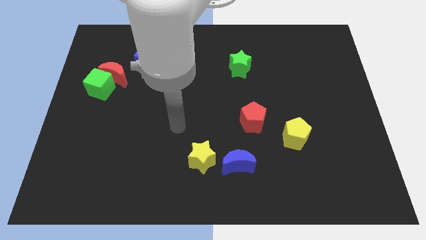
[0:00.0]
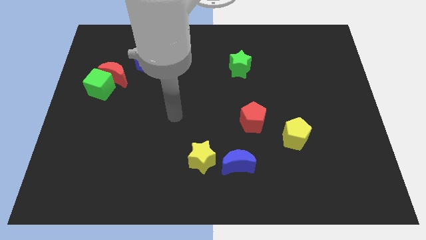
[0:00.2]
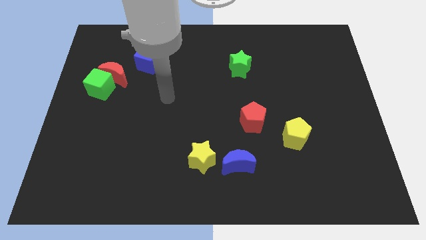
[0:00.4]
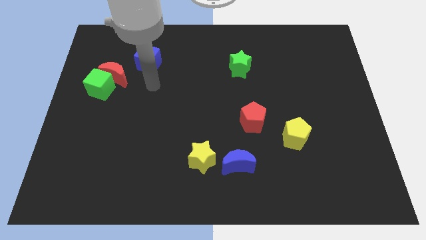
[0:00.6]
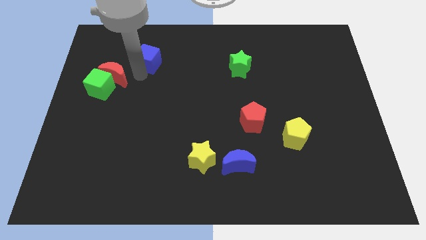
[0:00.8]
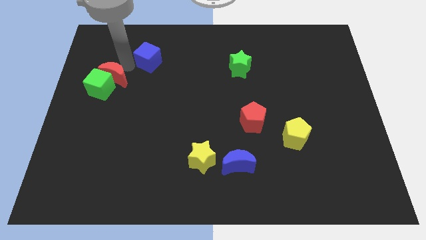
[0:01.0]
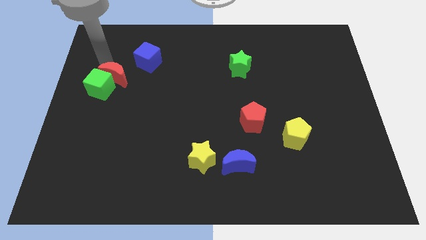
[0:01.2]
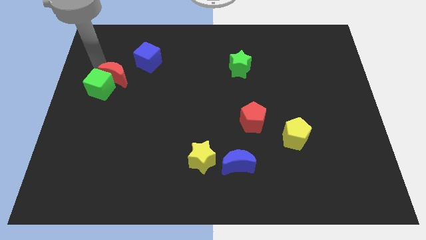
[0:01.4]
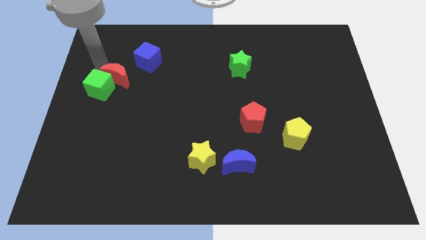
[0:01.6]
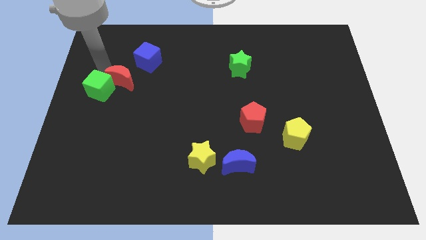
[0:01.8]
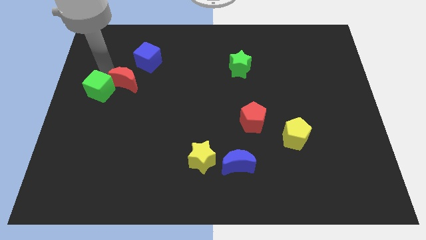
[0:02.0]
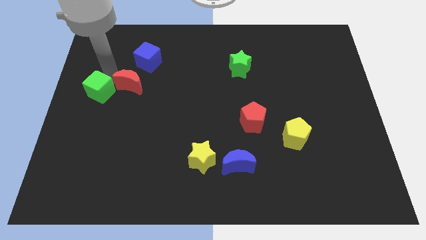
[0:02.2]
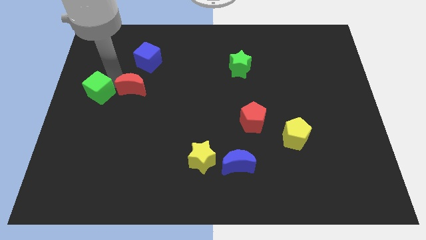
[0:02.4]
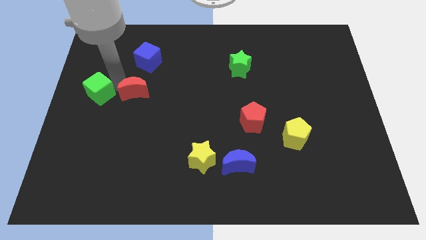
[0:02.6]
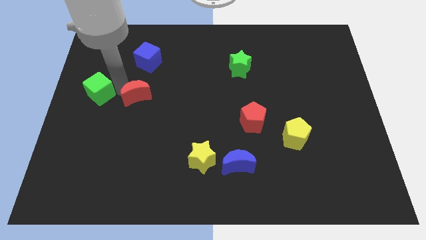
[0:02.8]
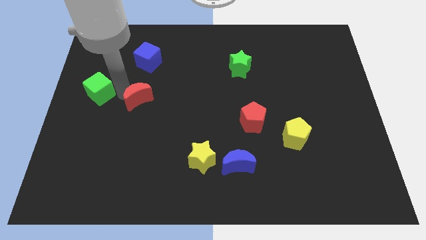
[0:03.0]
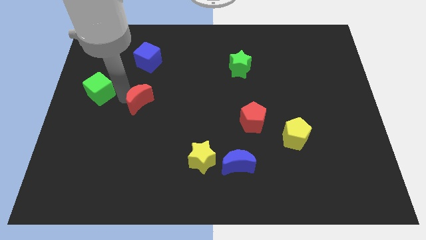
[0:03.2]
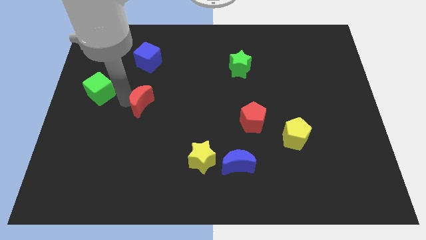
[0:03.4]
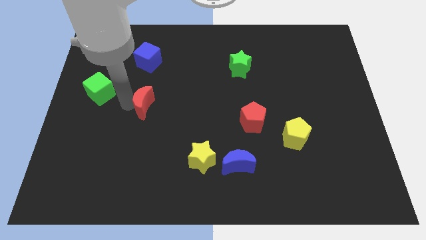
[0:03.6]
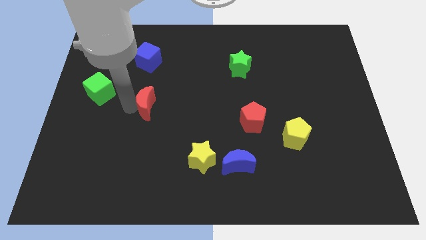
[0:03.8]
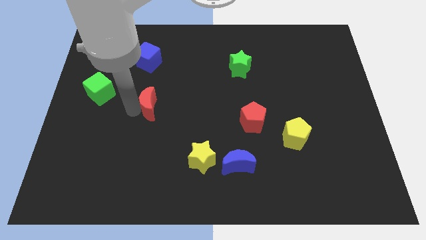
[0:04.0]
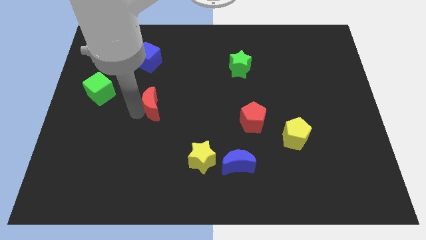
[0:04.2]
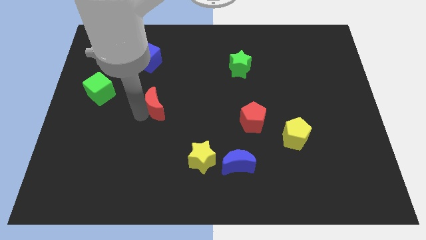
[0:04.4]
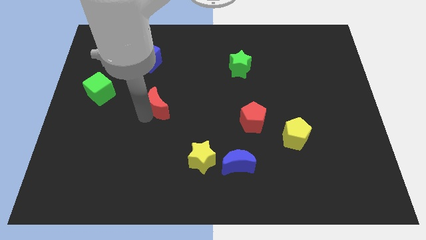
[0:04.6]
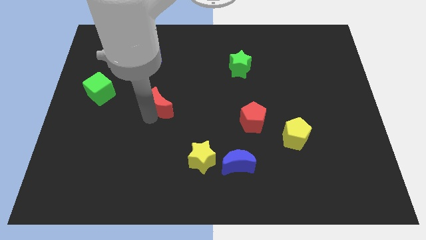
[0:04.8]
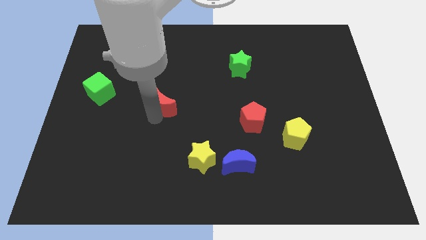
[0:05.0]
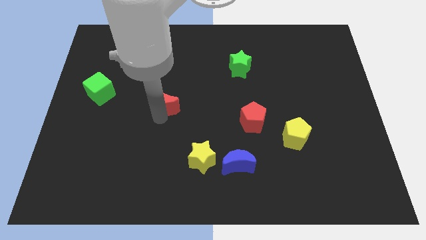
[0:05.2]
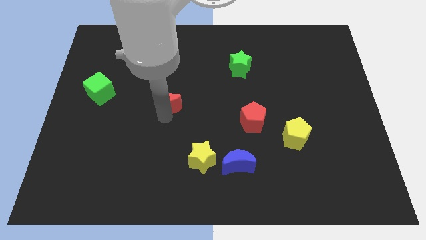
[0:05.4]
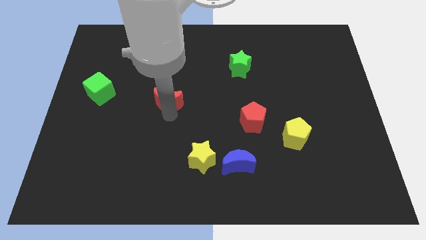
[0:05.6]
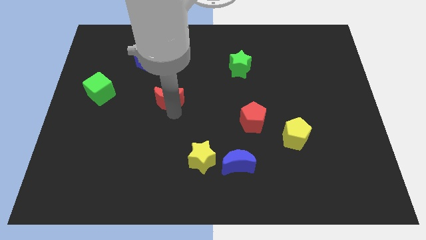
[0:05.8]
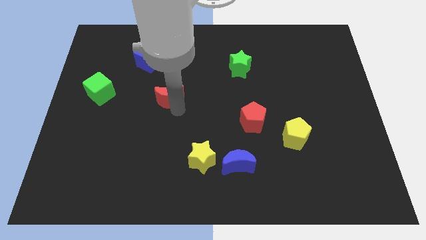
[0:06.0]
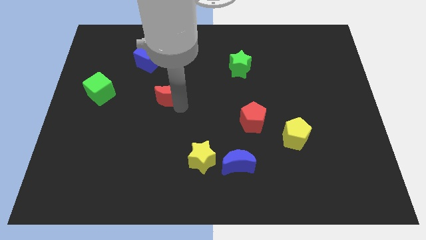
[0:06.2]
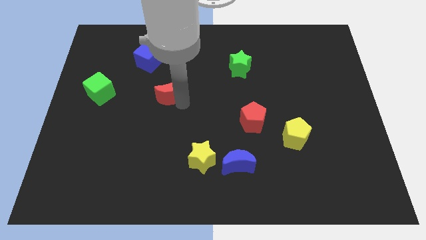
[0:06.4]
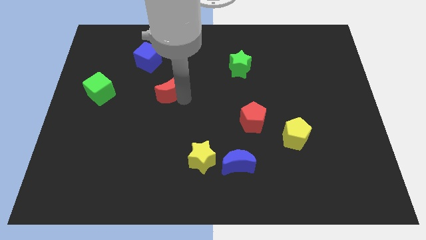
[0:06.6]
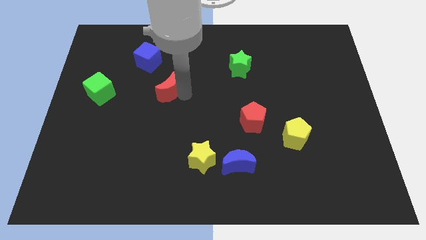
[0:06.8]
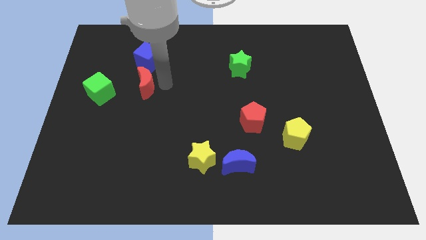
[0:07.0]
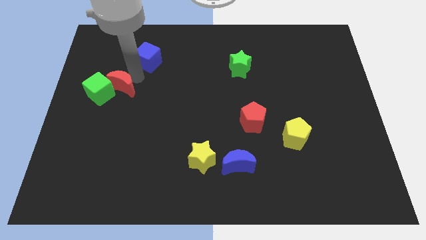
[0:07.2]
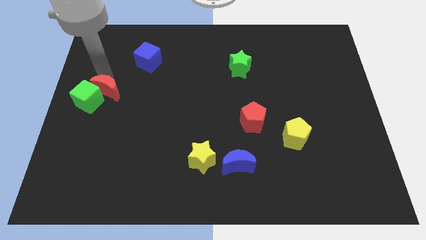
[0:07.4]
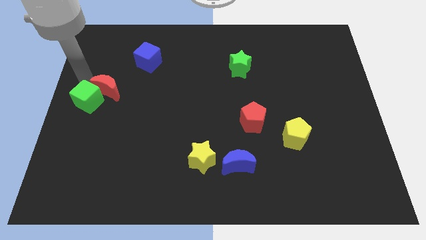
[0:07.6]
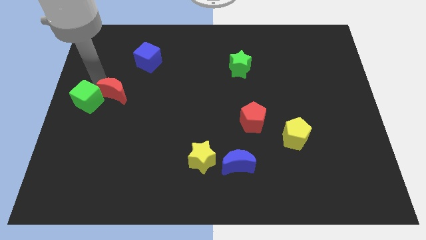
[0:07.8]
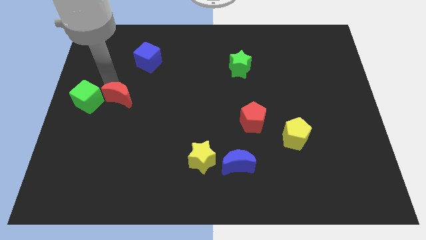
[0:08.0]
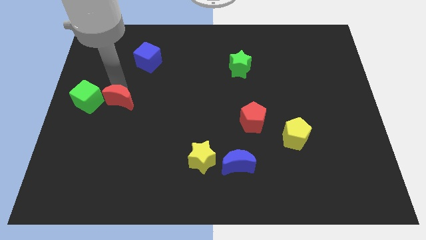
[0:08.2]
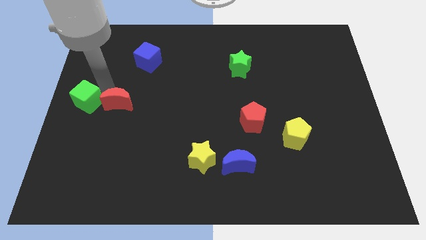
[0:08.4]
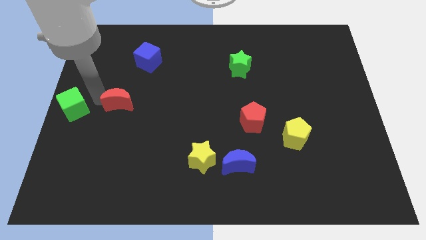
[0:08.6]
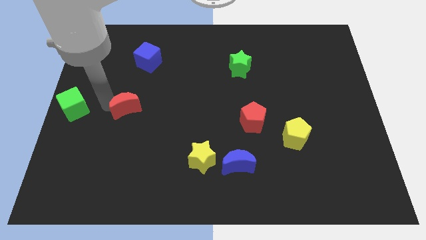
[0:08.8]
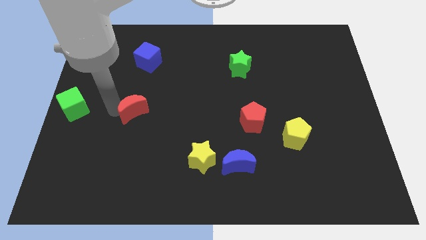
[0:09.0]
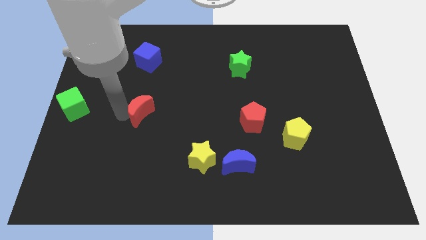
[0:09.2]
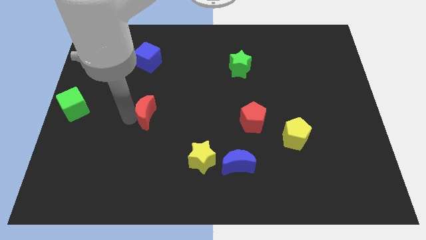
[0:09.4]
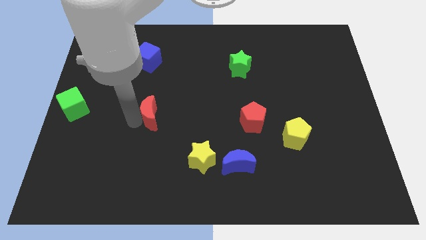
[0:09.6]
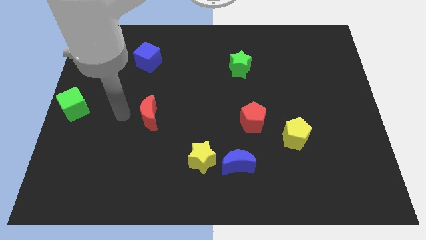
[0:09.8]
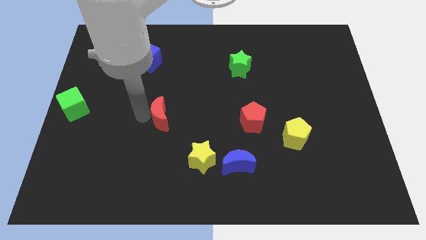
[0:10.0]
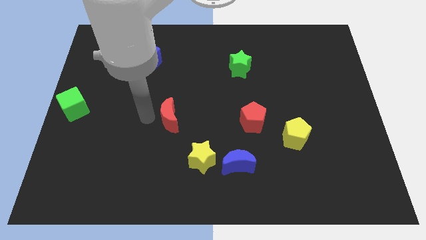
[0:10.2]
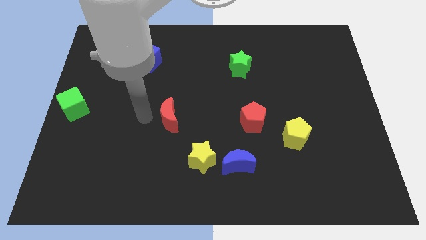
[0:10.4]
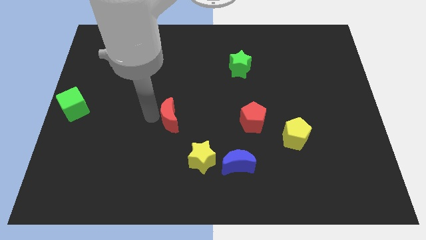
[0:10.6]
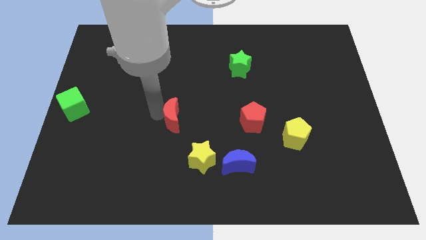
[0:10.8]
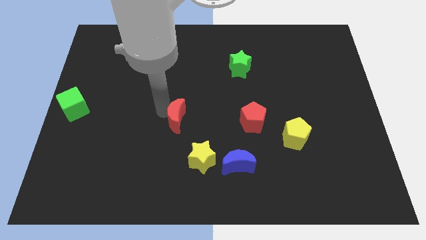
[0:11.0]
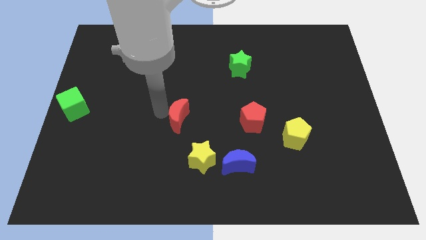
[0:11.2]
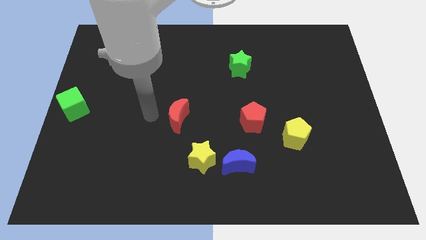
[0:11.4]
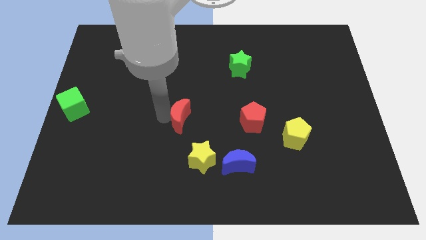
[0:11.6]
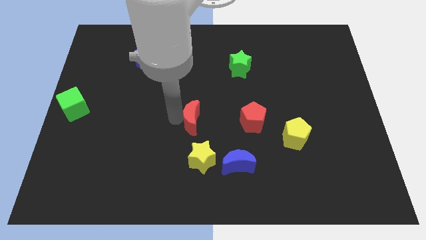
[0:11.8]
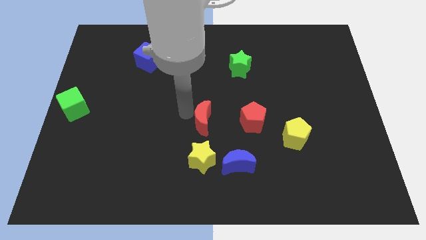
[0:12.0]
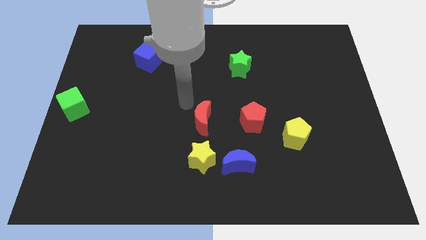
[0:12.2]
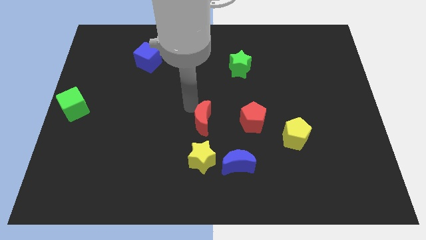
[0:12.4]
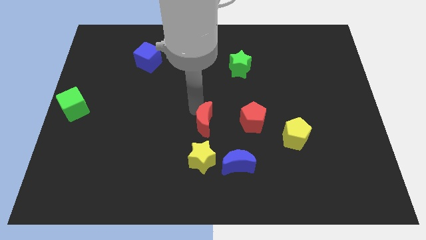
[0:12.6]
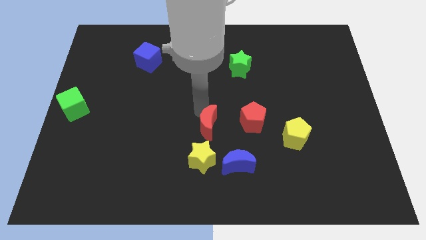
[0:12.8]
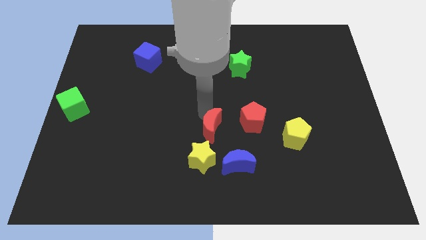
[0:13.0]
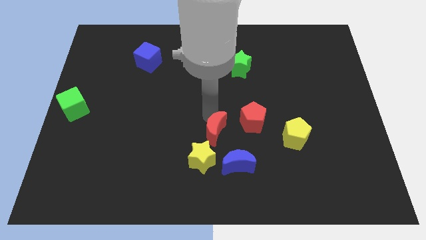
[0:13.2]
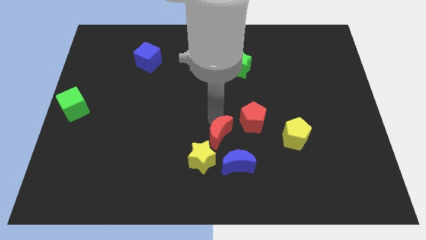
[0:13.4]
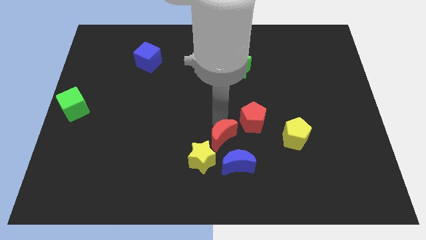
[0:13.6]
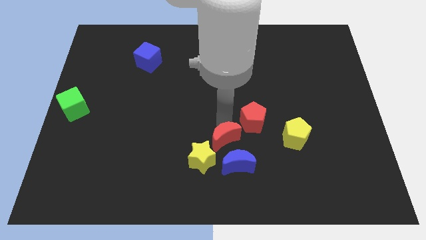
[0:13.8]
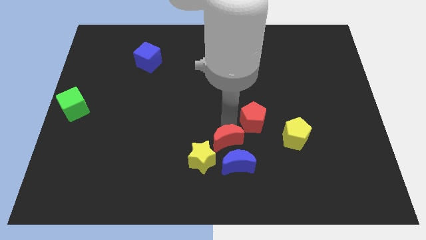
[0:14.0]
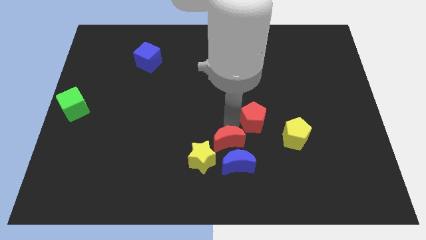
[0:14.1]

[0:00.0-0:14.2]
push the red moon to the blue moon
